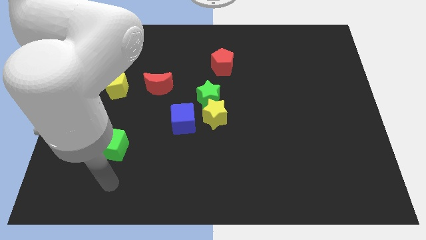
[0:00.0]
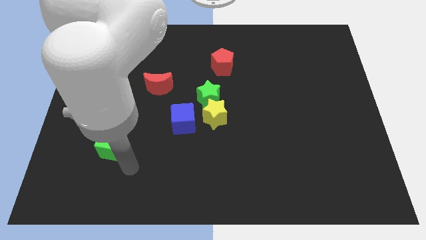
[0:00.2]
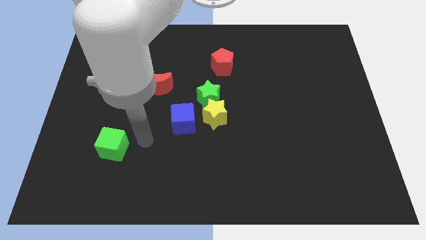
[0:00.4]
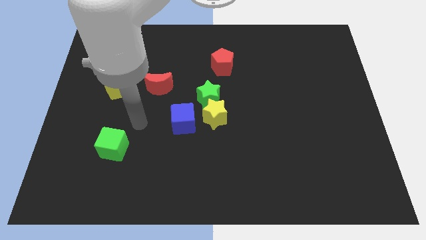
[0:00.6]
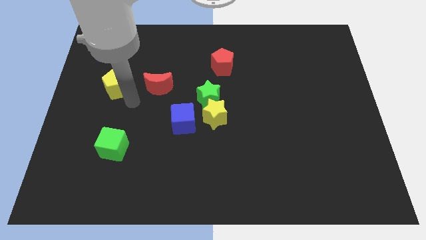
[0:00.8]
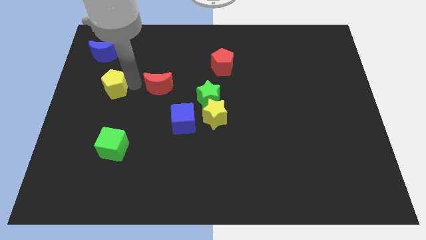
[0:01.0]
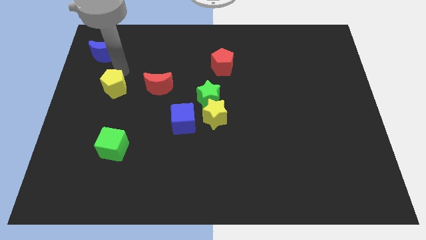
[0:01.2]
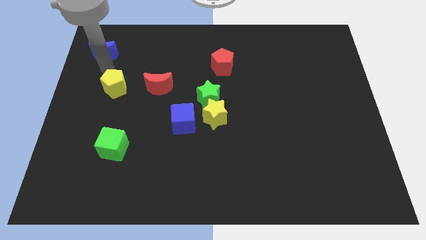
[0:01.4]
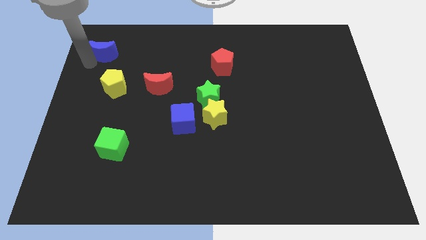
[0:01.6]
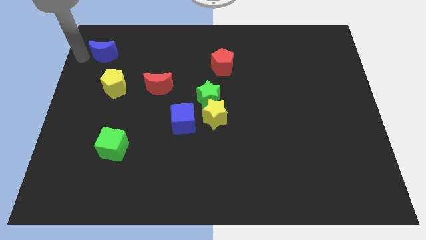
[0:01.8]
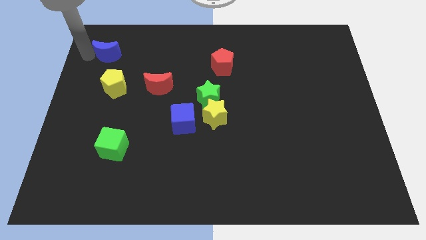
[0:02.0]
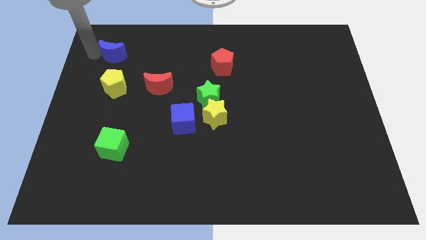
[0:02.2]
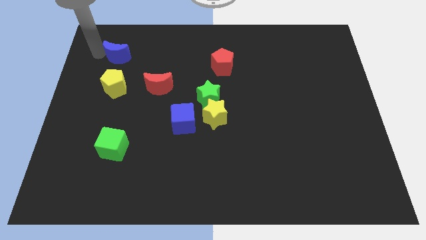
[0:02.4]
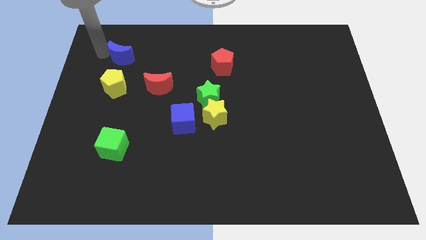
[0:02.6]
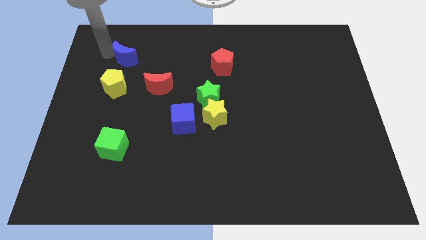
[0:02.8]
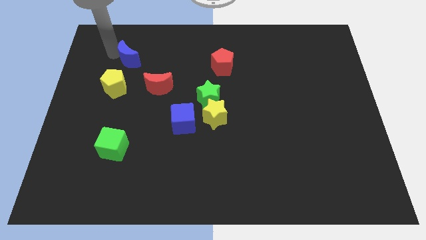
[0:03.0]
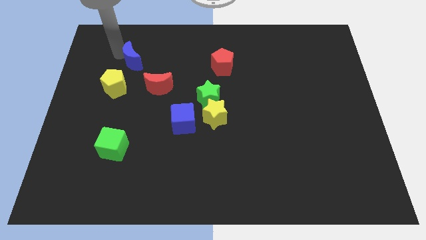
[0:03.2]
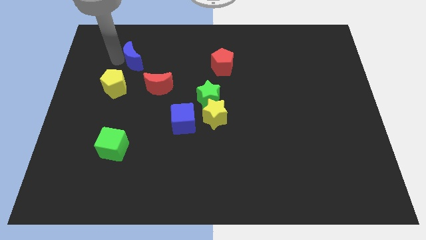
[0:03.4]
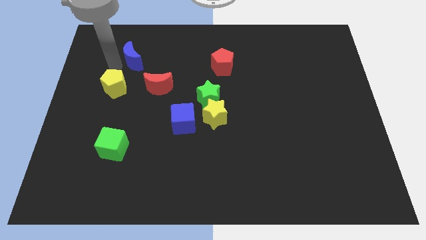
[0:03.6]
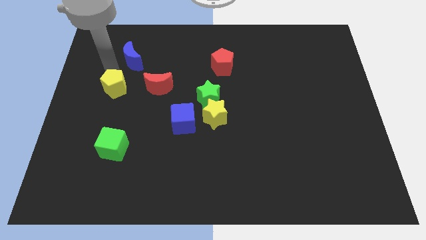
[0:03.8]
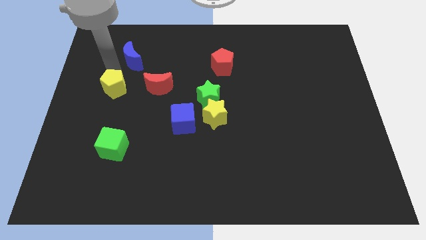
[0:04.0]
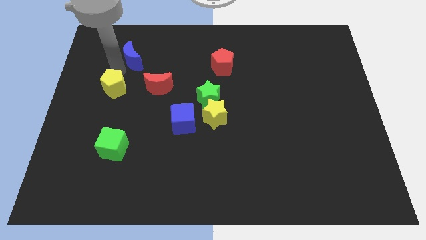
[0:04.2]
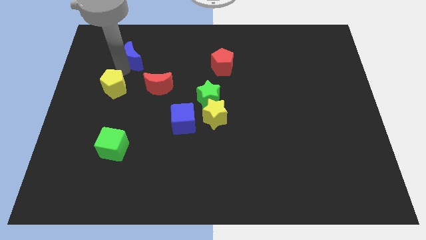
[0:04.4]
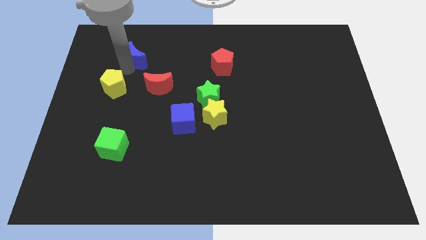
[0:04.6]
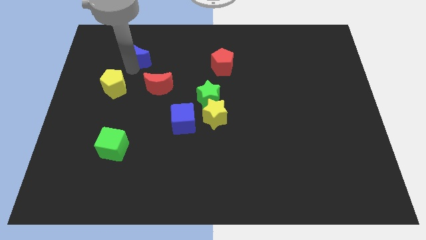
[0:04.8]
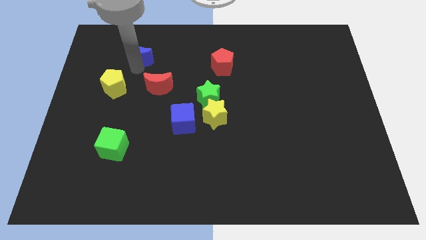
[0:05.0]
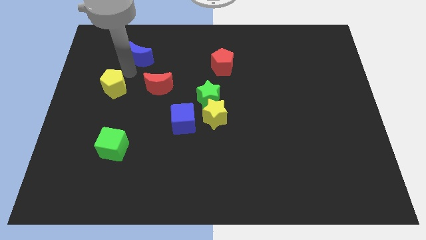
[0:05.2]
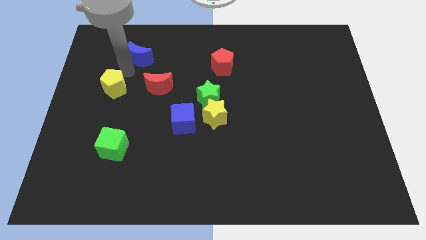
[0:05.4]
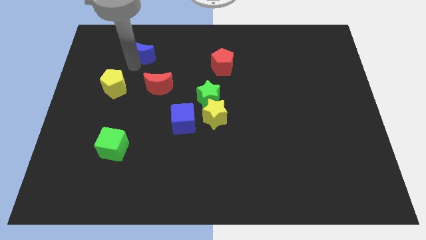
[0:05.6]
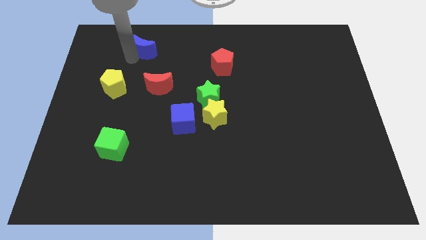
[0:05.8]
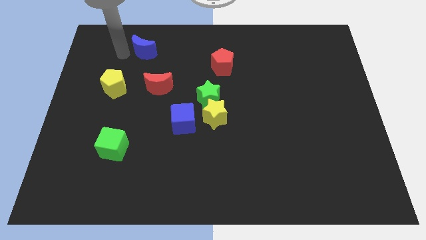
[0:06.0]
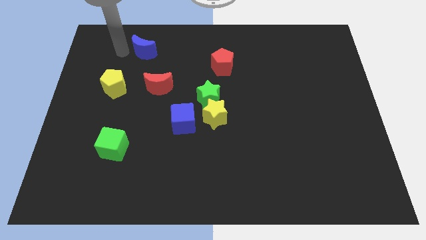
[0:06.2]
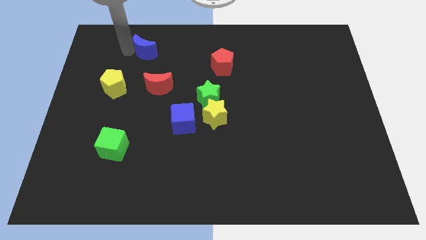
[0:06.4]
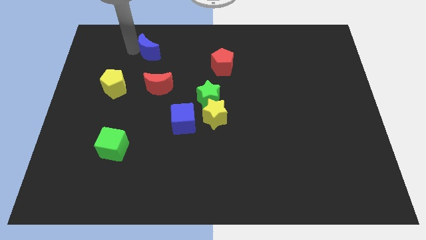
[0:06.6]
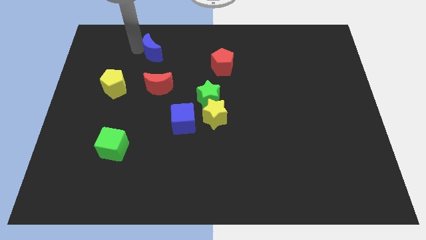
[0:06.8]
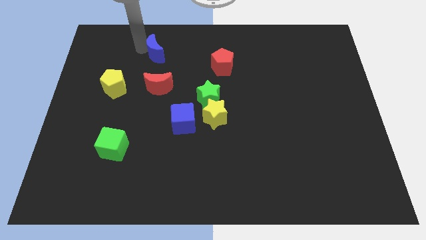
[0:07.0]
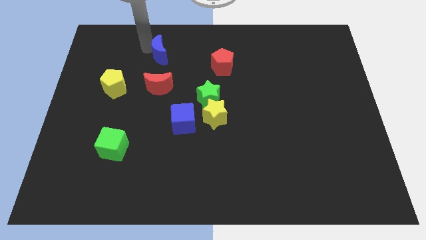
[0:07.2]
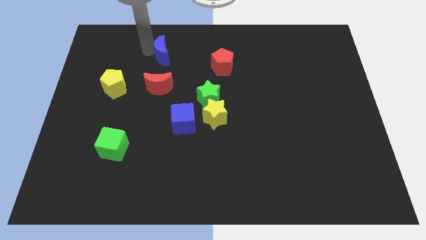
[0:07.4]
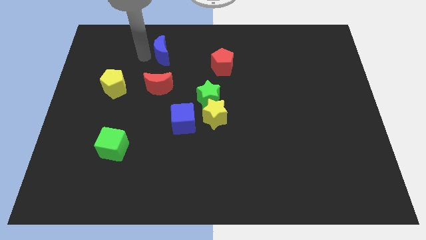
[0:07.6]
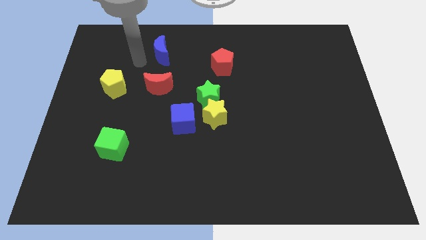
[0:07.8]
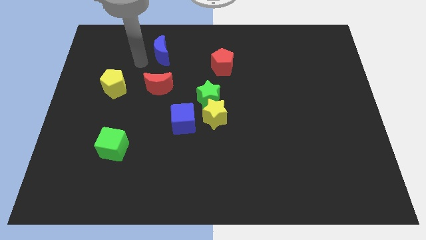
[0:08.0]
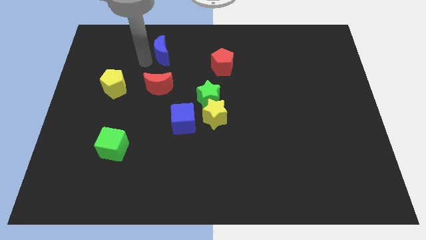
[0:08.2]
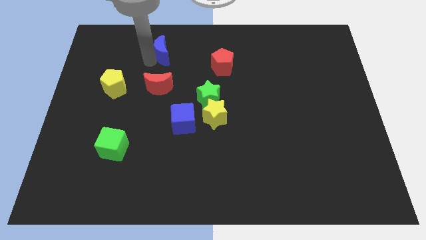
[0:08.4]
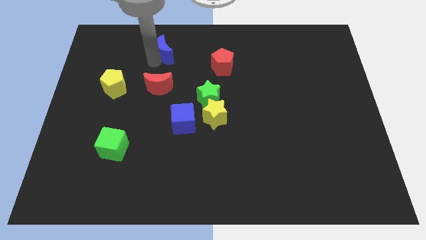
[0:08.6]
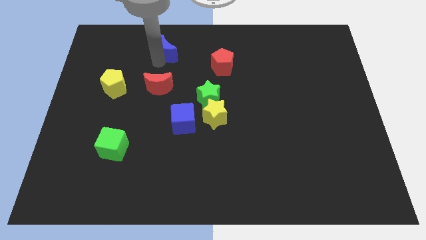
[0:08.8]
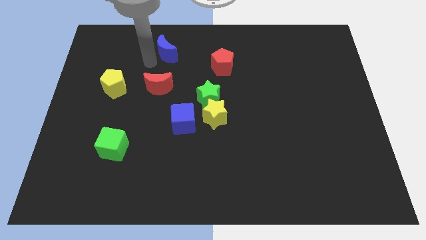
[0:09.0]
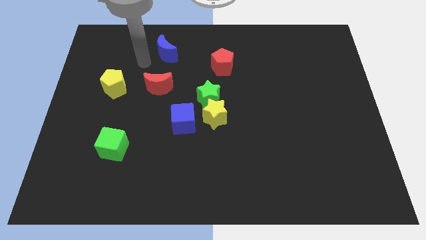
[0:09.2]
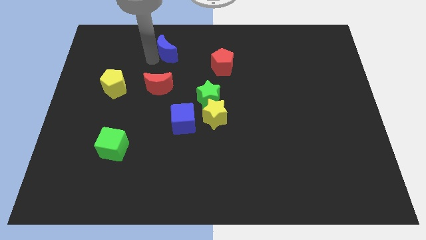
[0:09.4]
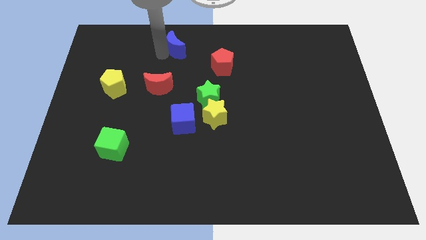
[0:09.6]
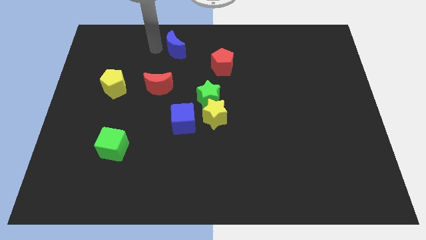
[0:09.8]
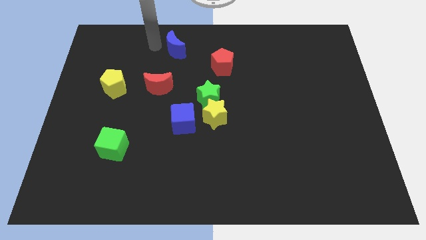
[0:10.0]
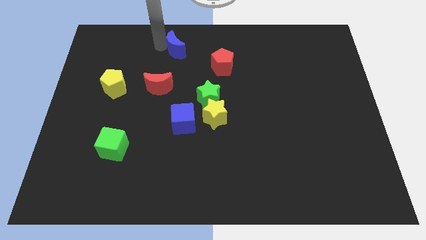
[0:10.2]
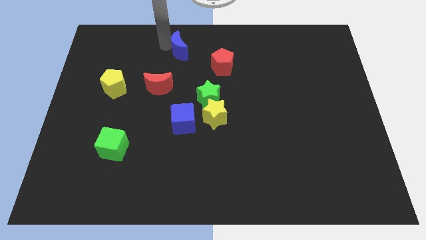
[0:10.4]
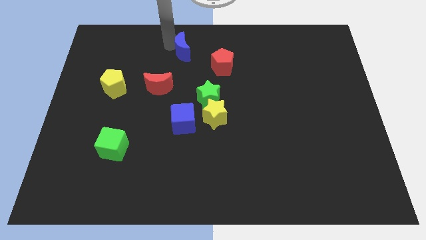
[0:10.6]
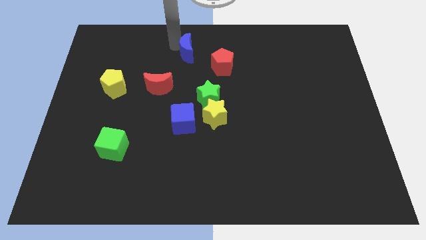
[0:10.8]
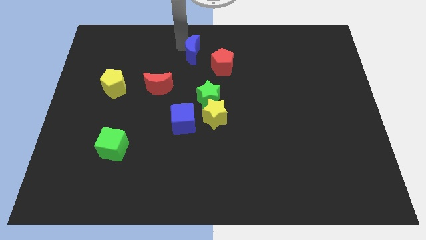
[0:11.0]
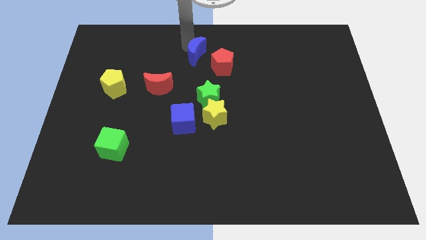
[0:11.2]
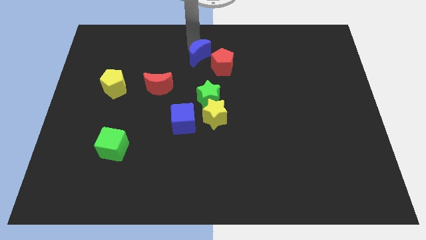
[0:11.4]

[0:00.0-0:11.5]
push the blue moon to the top of the green star

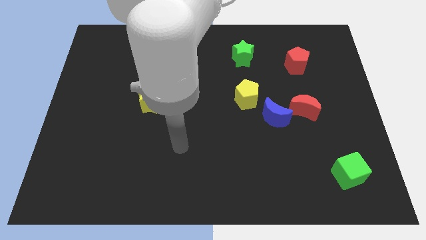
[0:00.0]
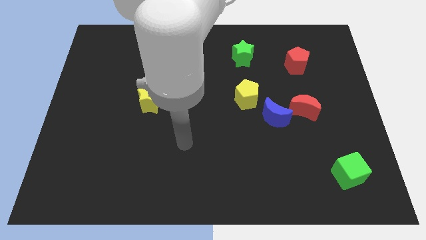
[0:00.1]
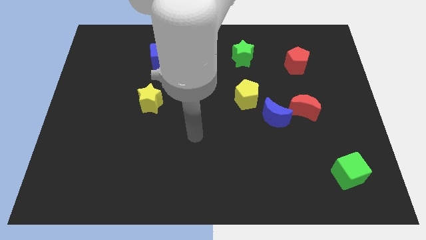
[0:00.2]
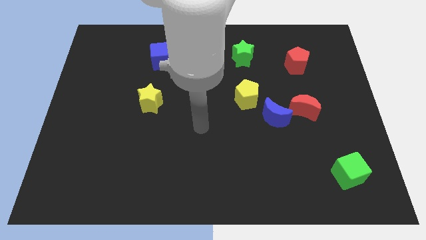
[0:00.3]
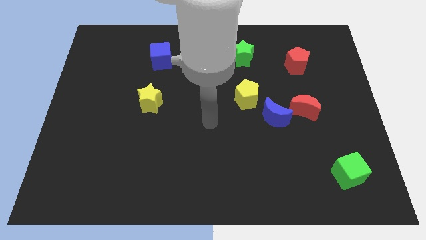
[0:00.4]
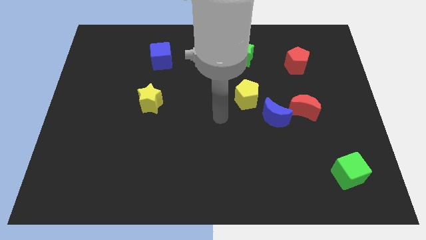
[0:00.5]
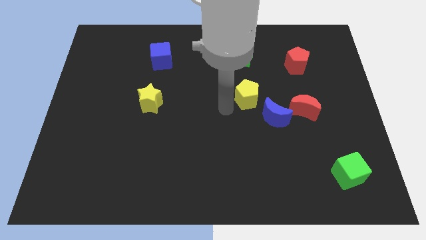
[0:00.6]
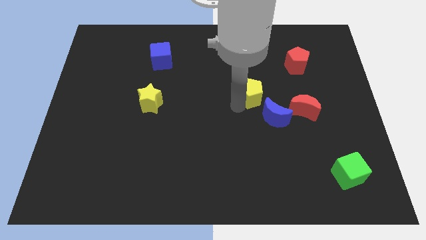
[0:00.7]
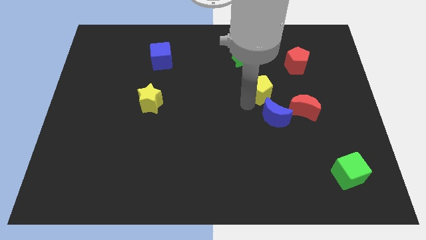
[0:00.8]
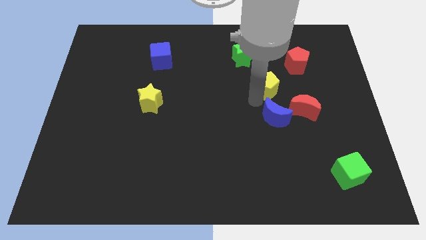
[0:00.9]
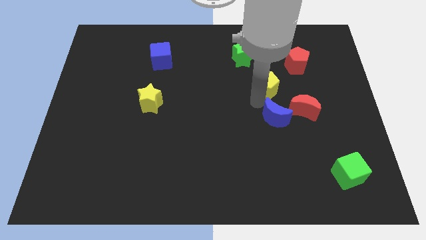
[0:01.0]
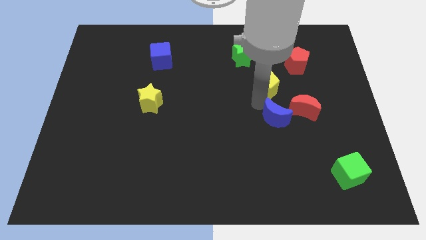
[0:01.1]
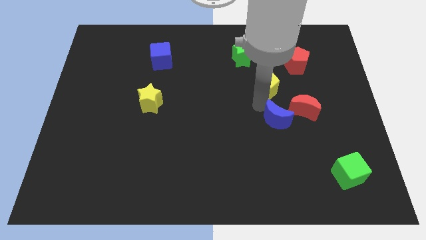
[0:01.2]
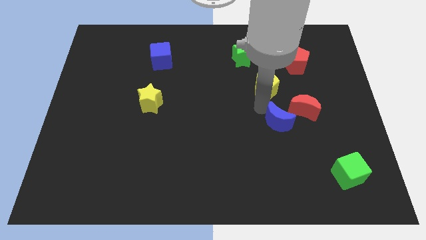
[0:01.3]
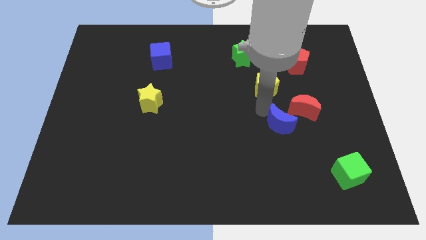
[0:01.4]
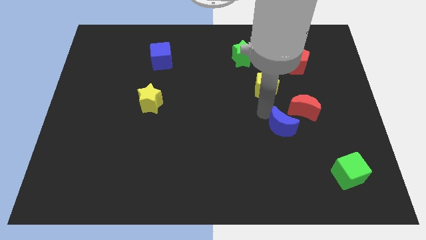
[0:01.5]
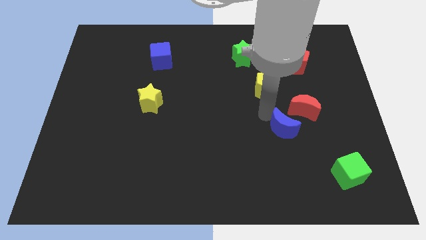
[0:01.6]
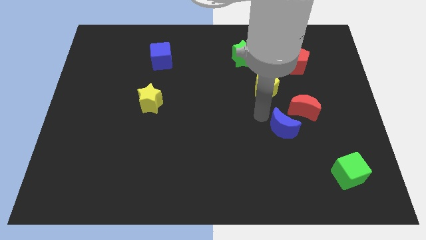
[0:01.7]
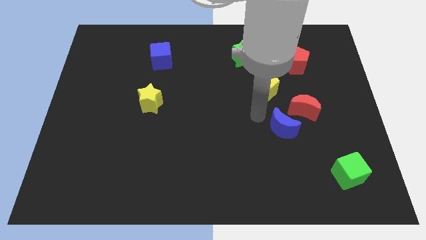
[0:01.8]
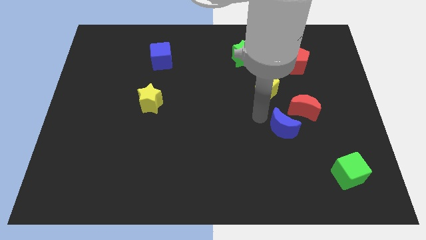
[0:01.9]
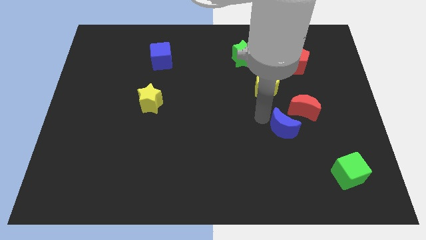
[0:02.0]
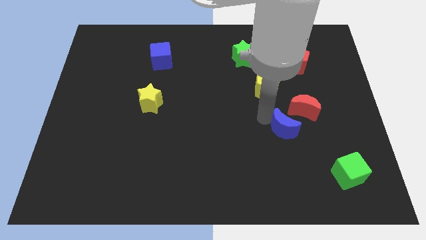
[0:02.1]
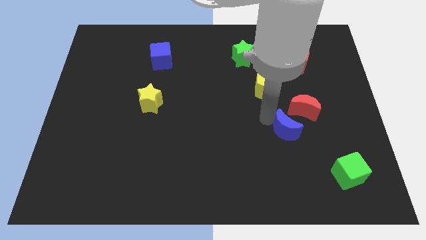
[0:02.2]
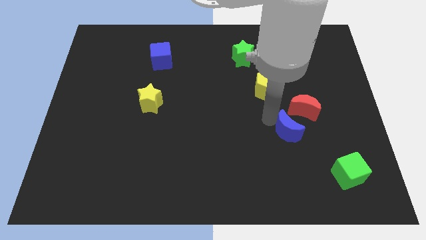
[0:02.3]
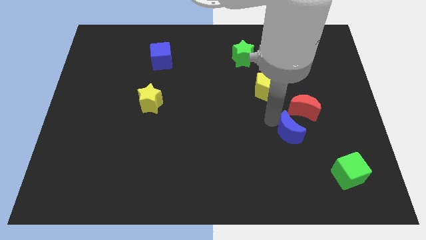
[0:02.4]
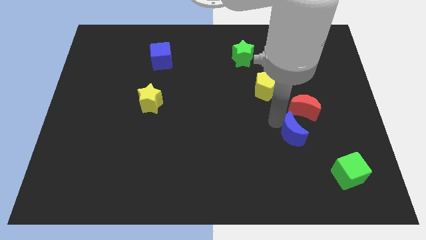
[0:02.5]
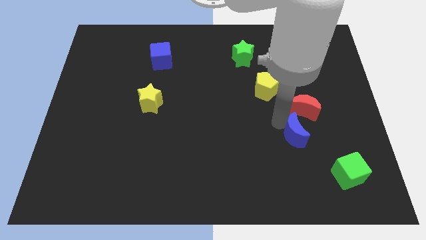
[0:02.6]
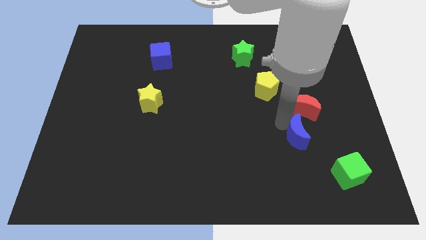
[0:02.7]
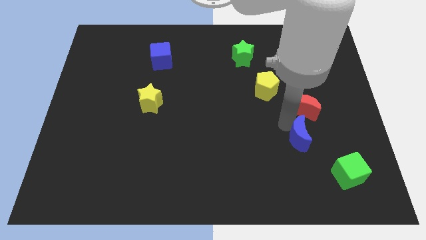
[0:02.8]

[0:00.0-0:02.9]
put the blue moon to the top left side of the green cube
